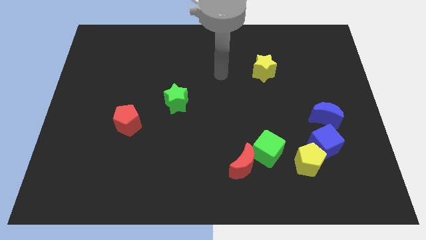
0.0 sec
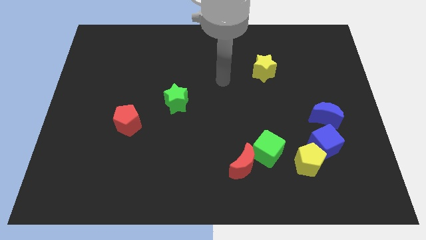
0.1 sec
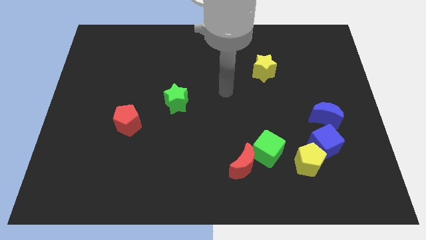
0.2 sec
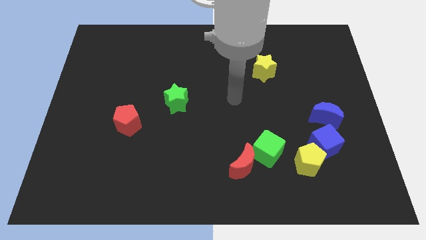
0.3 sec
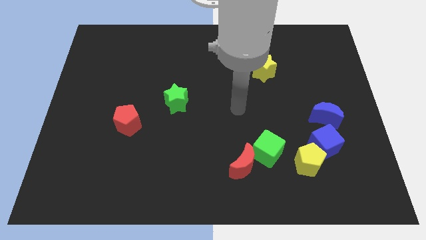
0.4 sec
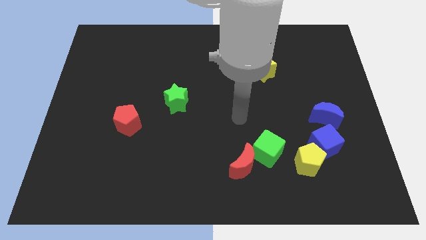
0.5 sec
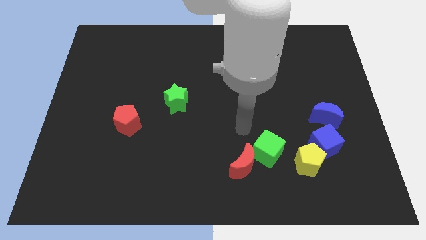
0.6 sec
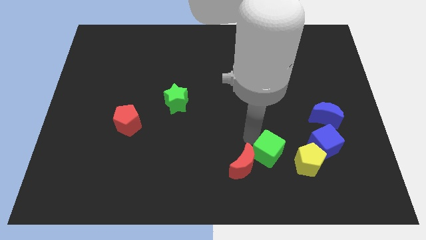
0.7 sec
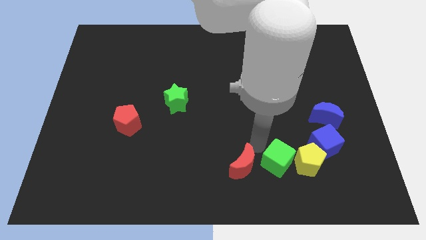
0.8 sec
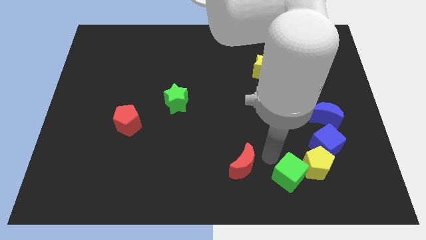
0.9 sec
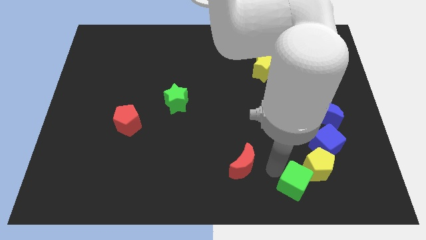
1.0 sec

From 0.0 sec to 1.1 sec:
separate the red moon from the green cube

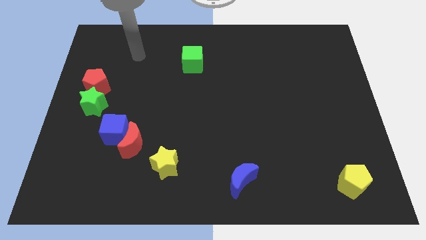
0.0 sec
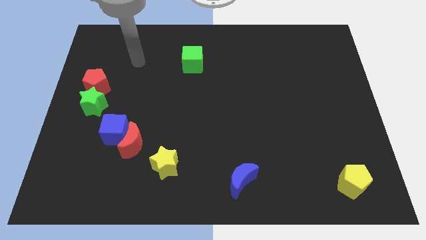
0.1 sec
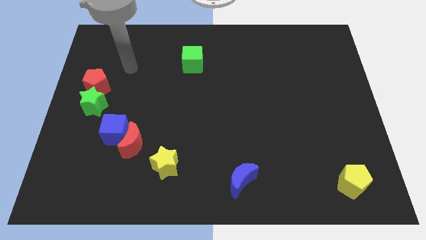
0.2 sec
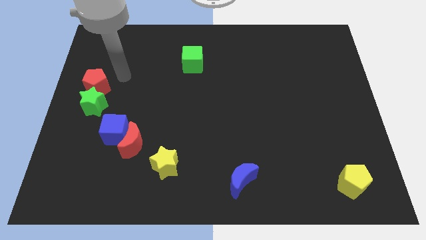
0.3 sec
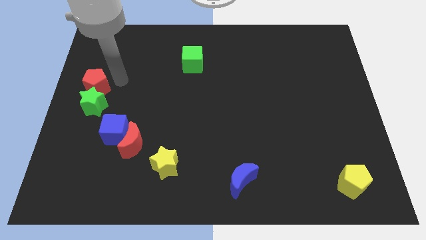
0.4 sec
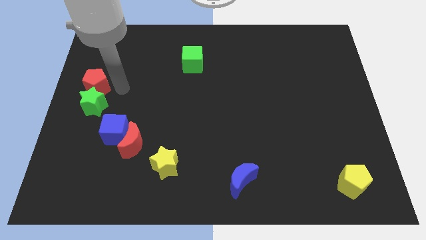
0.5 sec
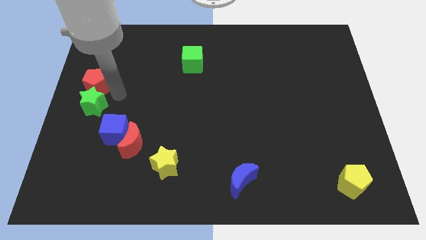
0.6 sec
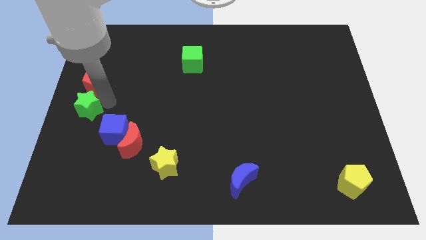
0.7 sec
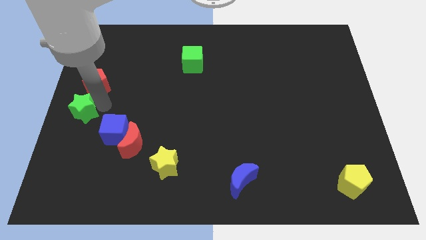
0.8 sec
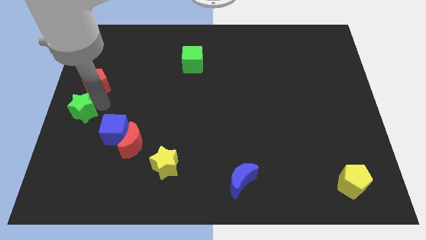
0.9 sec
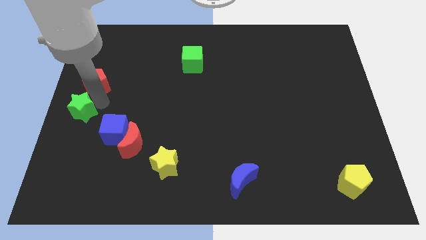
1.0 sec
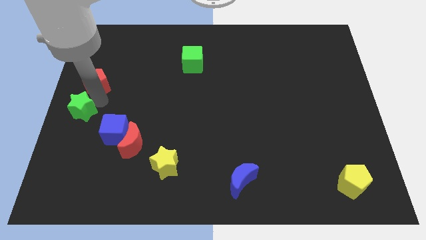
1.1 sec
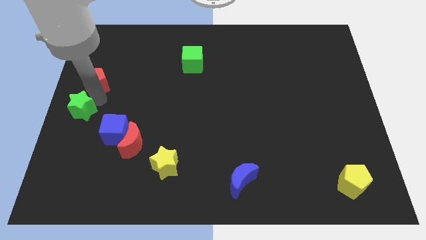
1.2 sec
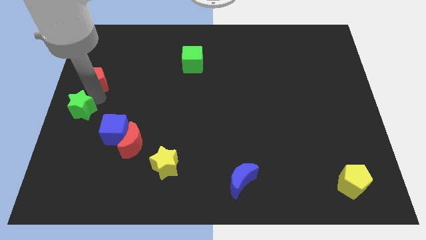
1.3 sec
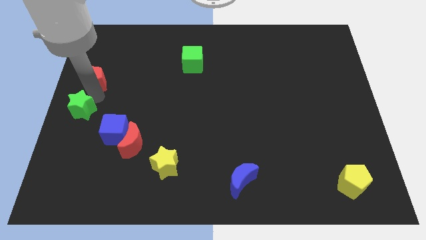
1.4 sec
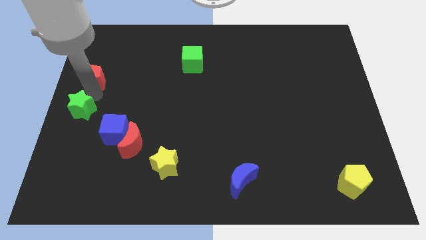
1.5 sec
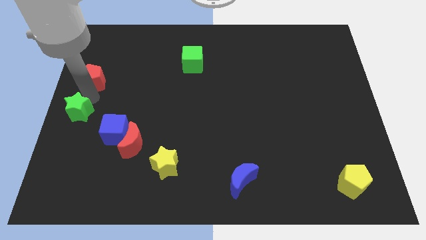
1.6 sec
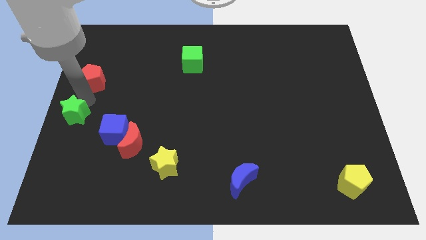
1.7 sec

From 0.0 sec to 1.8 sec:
pull the red pentagon apart from the green star

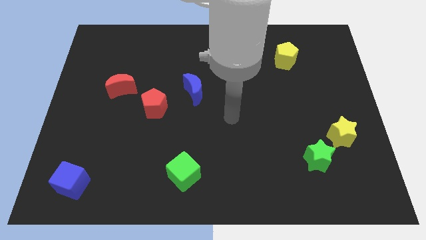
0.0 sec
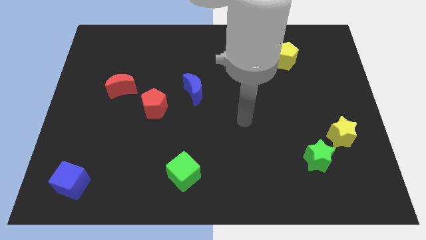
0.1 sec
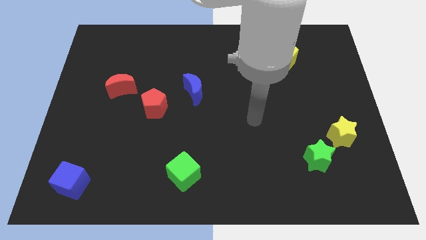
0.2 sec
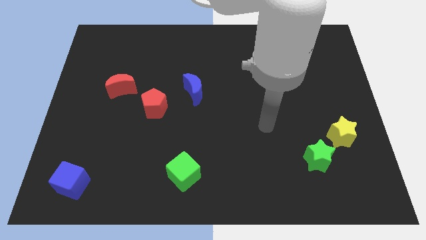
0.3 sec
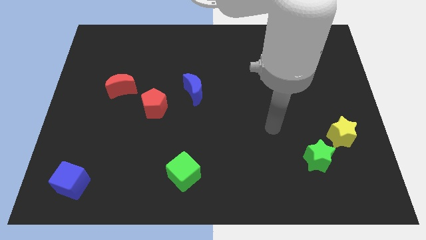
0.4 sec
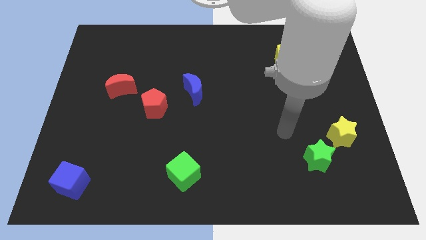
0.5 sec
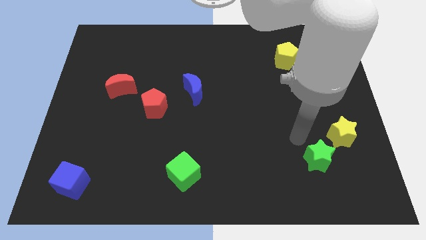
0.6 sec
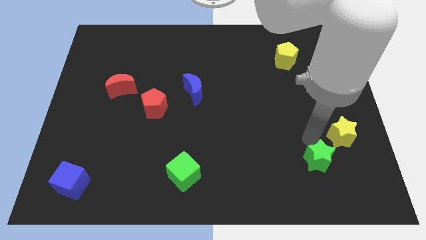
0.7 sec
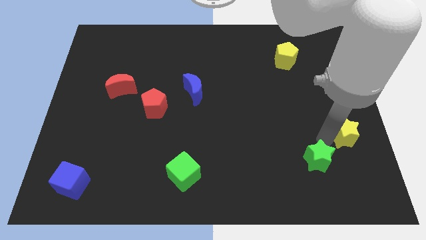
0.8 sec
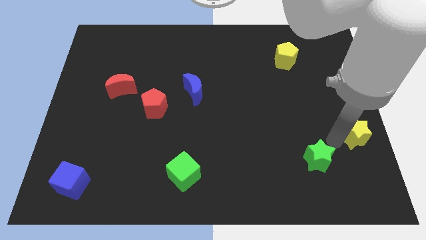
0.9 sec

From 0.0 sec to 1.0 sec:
separate the green star from the yellow star

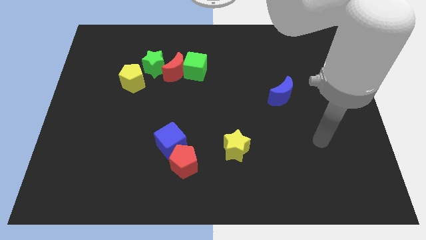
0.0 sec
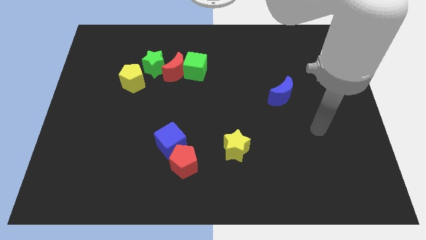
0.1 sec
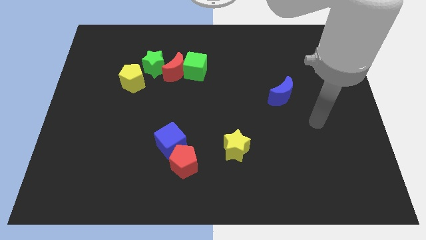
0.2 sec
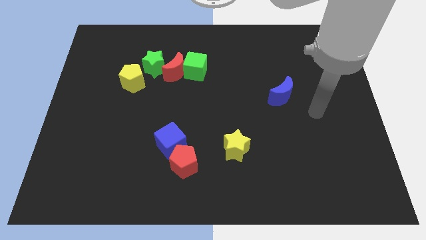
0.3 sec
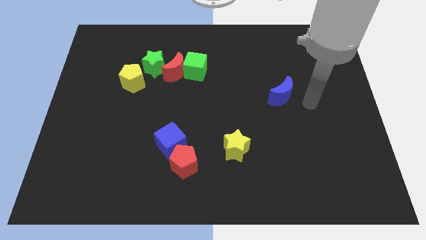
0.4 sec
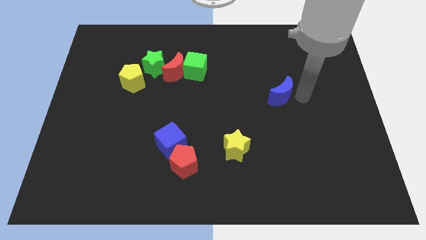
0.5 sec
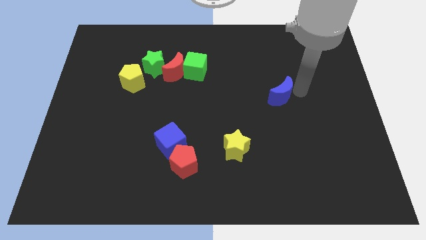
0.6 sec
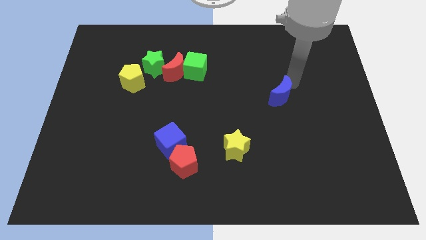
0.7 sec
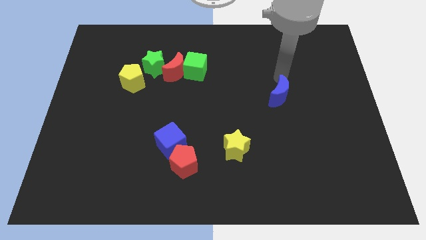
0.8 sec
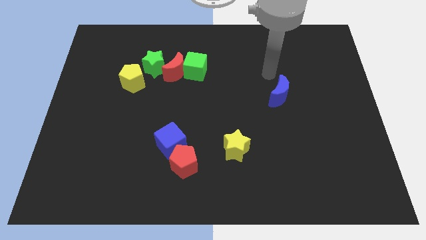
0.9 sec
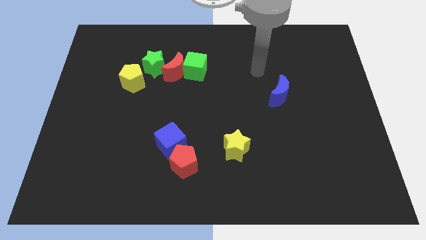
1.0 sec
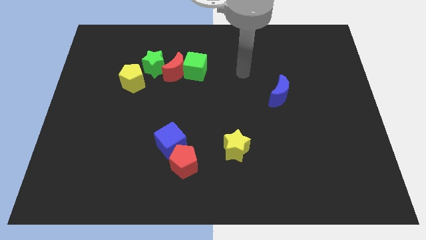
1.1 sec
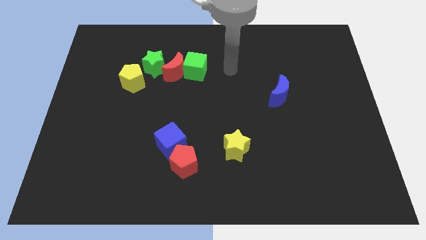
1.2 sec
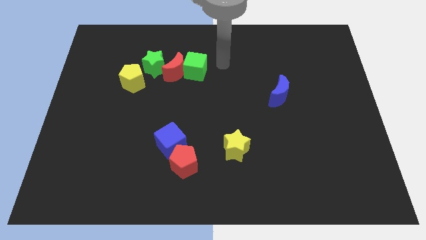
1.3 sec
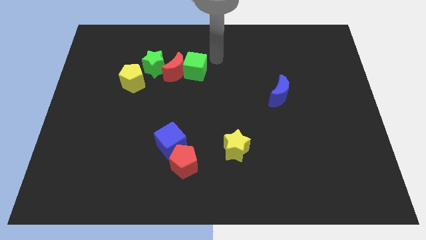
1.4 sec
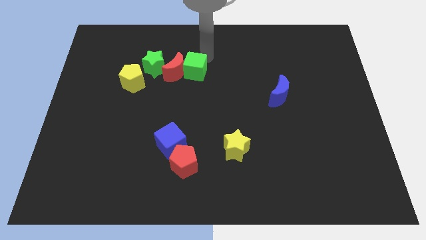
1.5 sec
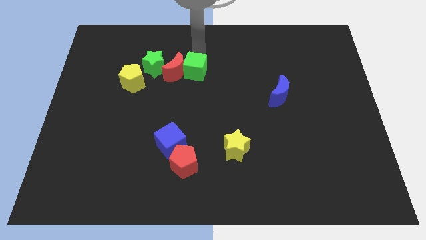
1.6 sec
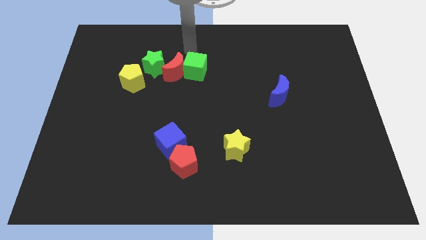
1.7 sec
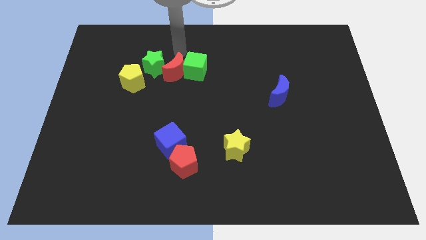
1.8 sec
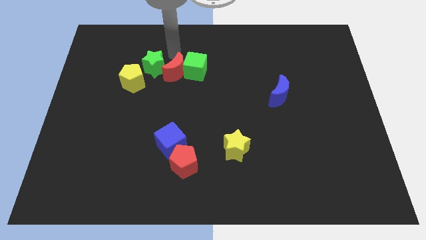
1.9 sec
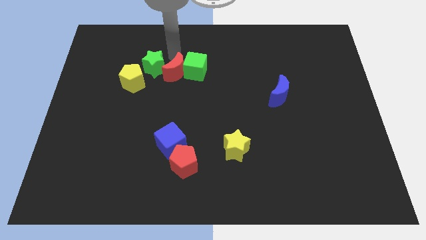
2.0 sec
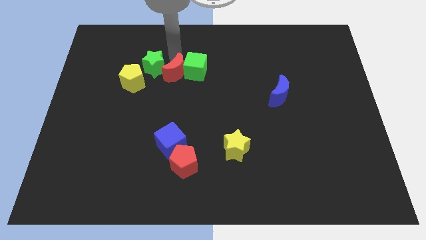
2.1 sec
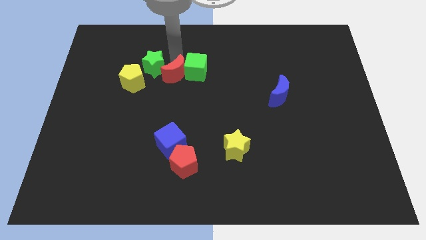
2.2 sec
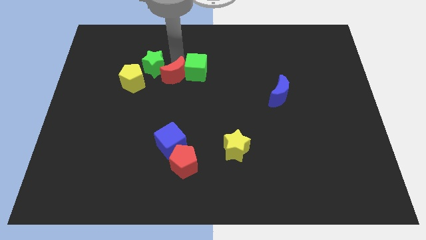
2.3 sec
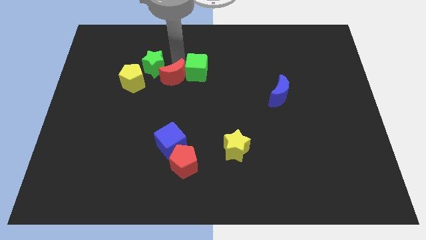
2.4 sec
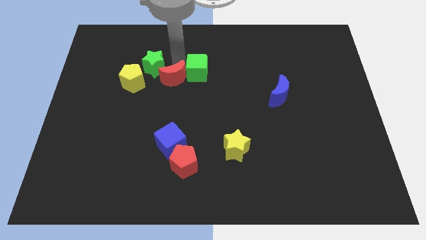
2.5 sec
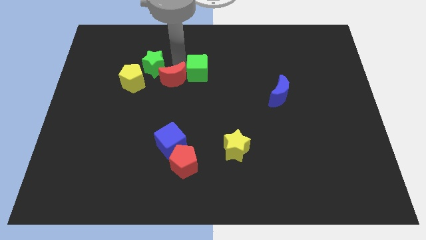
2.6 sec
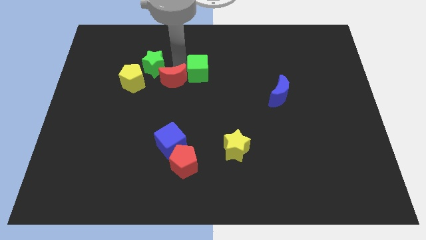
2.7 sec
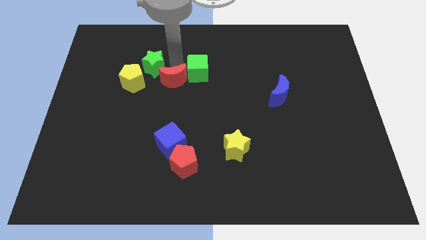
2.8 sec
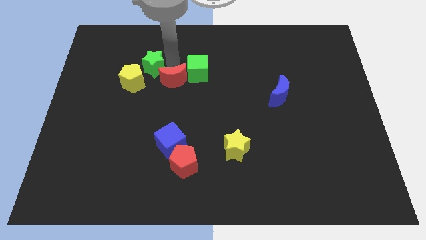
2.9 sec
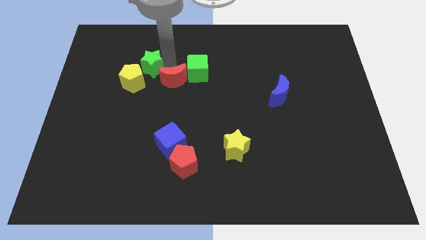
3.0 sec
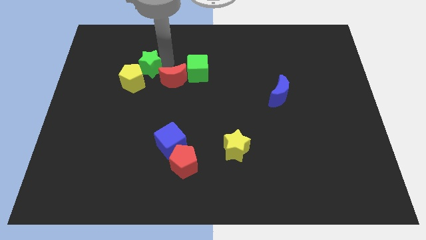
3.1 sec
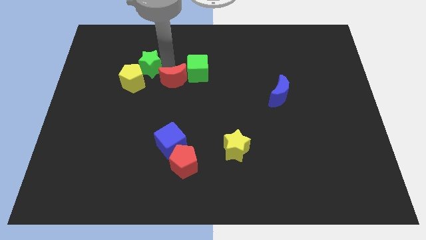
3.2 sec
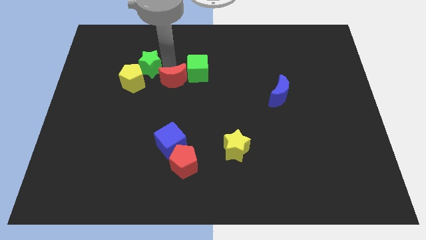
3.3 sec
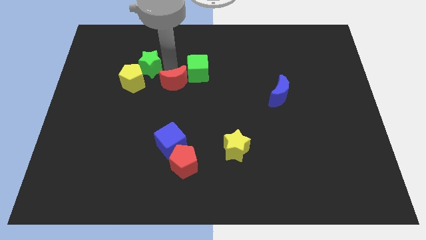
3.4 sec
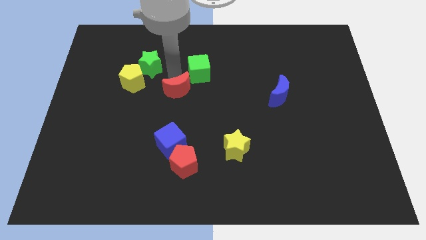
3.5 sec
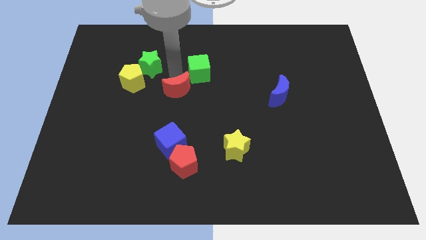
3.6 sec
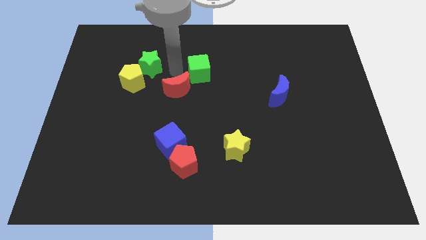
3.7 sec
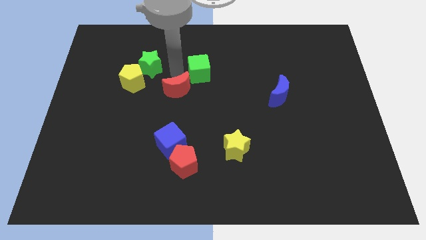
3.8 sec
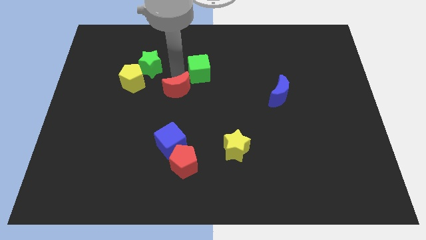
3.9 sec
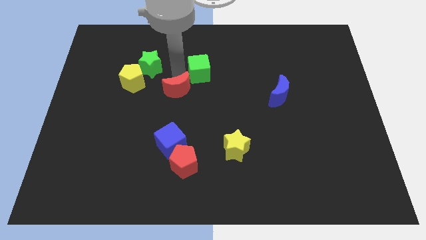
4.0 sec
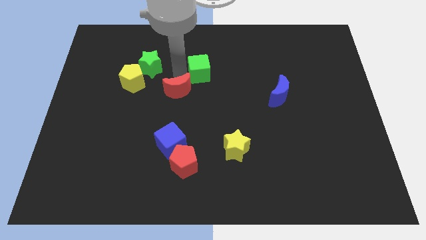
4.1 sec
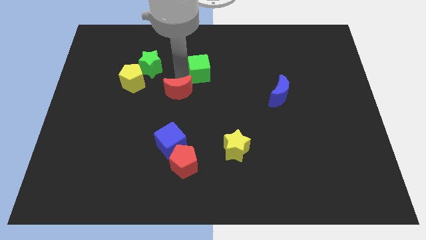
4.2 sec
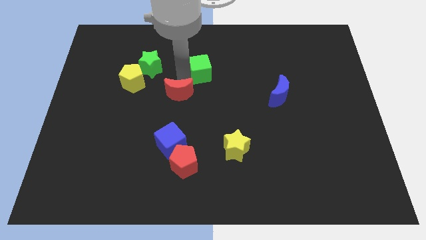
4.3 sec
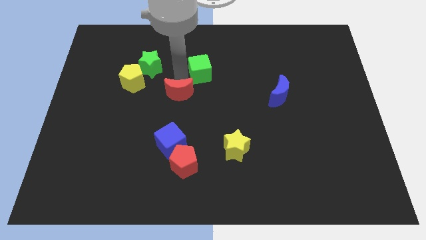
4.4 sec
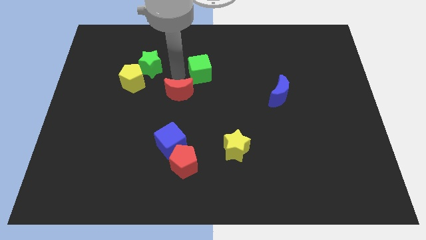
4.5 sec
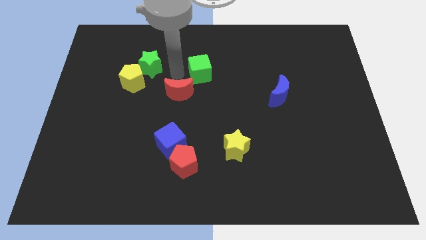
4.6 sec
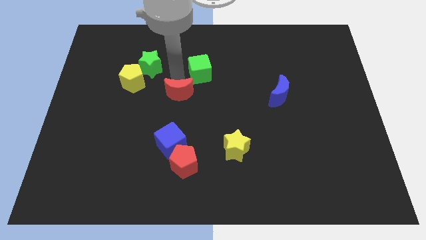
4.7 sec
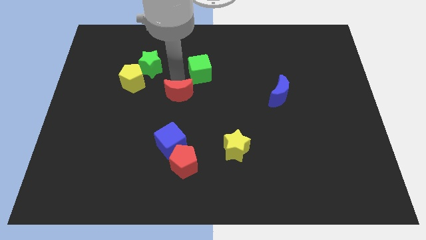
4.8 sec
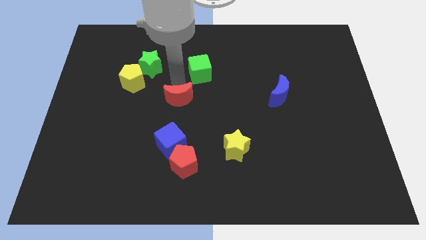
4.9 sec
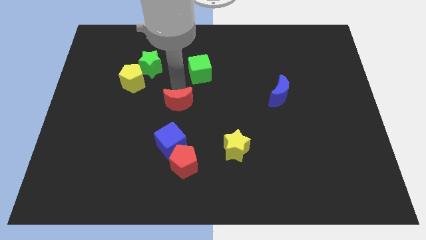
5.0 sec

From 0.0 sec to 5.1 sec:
move the red moon away from the green cube and green star

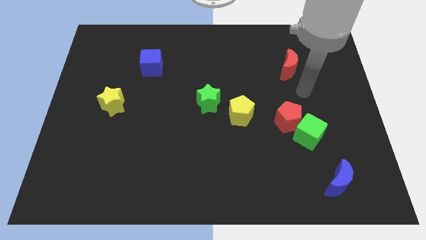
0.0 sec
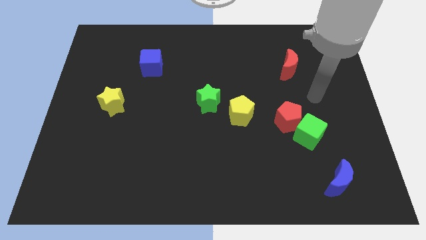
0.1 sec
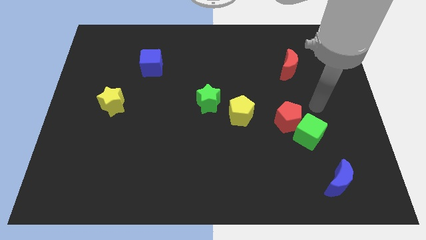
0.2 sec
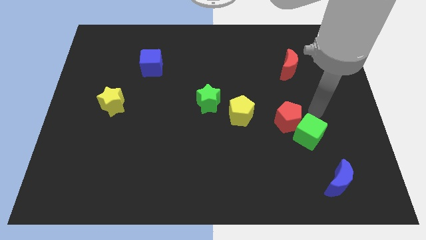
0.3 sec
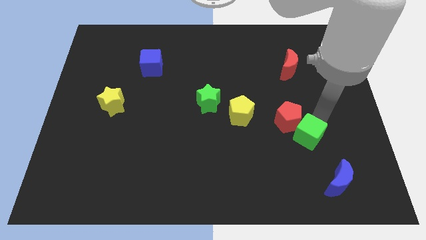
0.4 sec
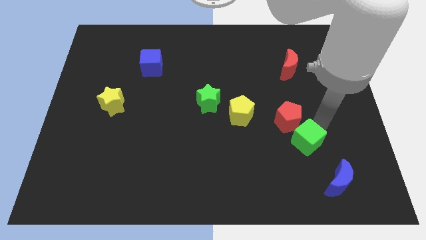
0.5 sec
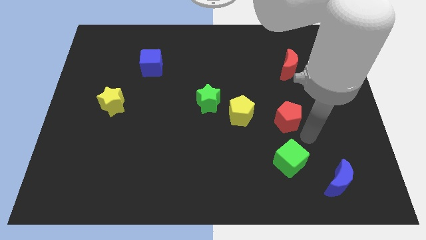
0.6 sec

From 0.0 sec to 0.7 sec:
pull the red pentagon apart from the green cube
